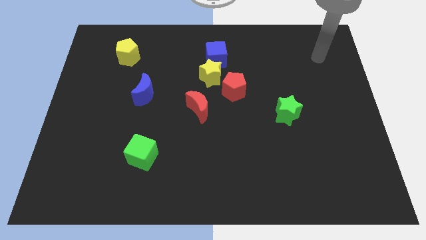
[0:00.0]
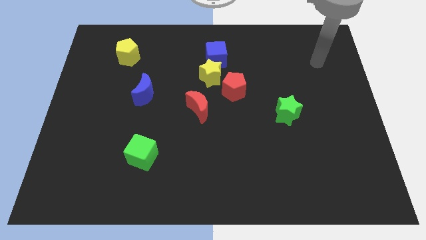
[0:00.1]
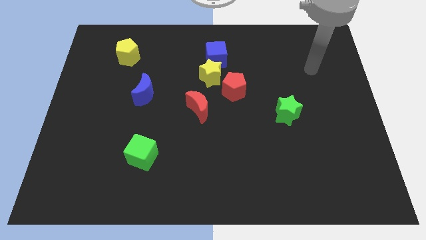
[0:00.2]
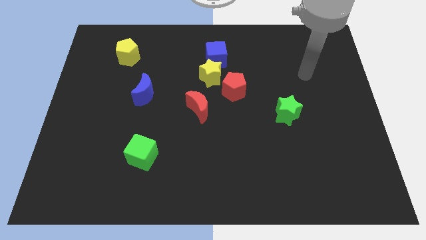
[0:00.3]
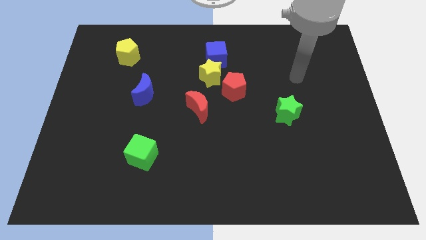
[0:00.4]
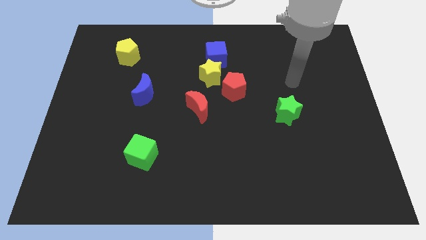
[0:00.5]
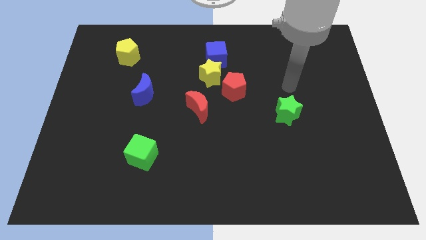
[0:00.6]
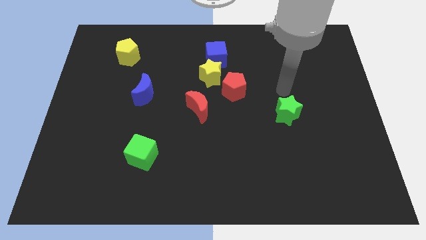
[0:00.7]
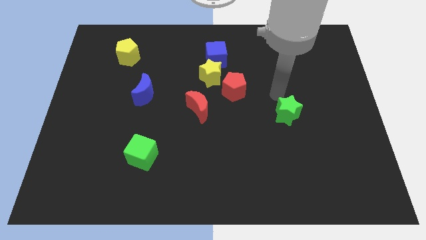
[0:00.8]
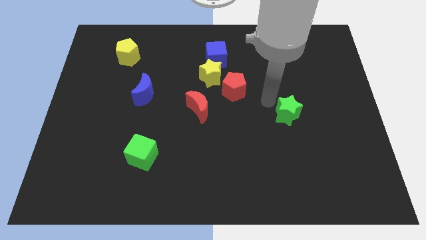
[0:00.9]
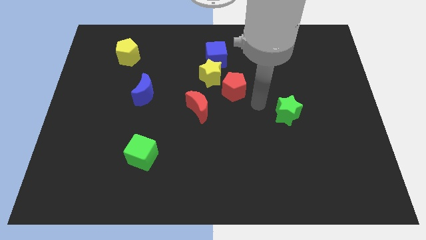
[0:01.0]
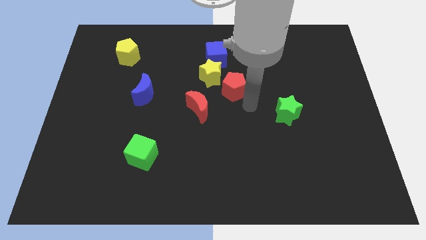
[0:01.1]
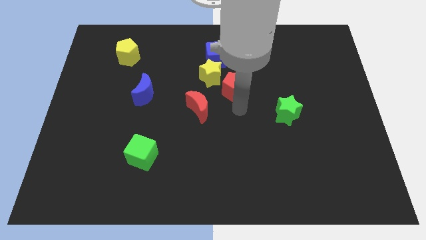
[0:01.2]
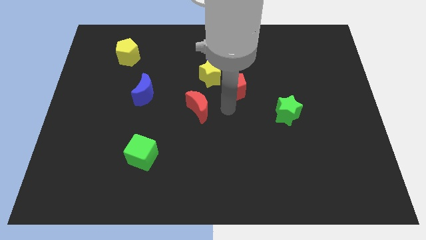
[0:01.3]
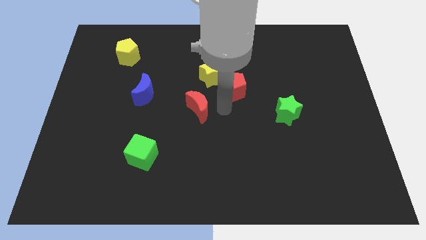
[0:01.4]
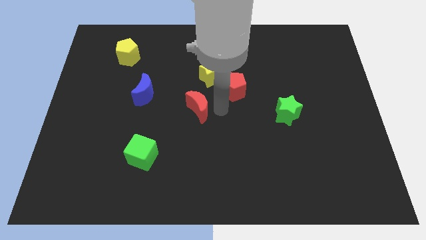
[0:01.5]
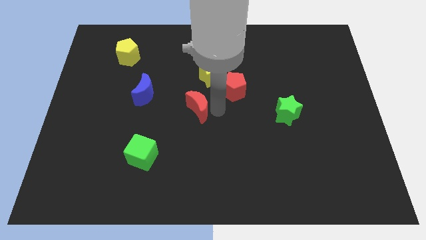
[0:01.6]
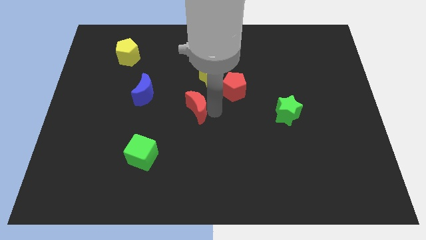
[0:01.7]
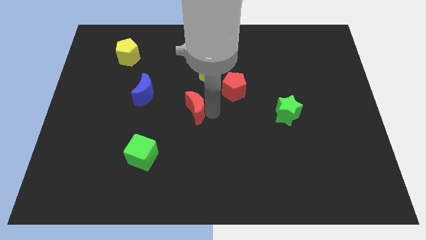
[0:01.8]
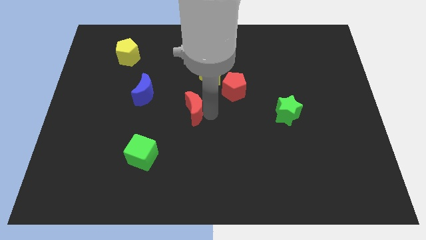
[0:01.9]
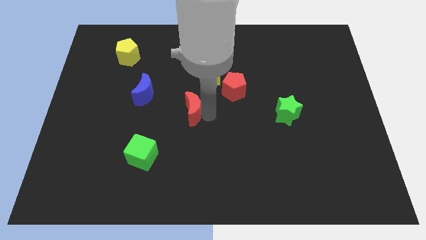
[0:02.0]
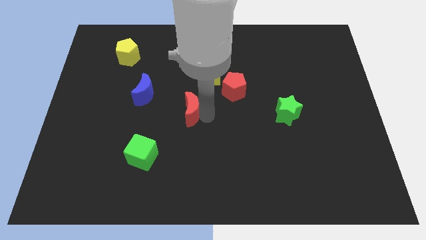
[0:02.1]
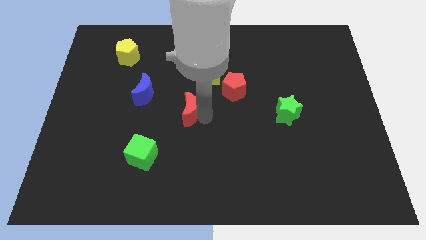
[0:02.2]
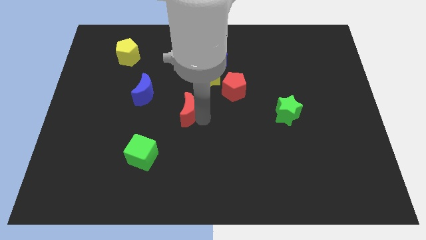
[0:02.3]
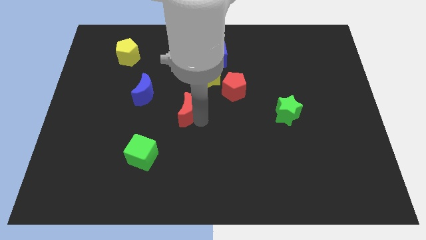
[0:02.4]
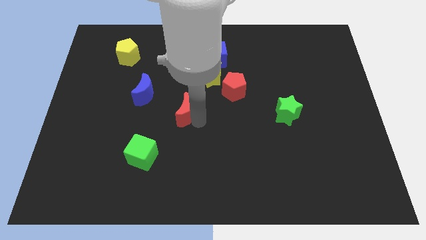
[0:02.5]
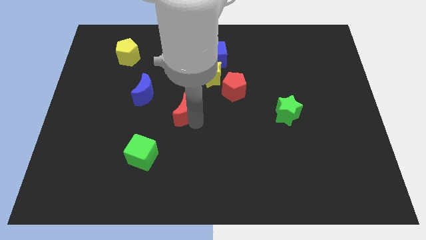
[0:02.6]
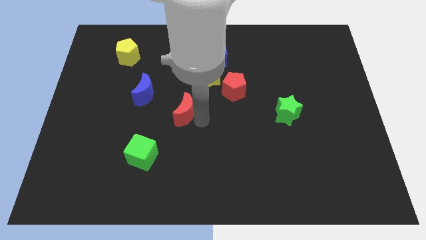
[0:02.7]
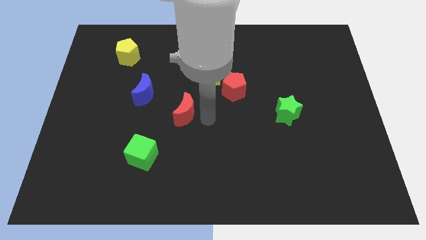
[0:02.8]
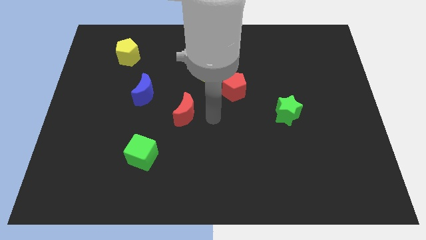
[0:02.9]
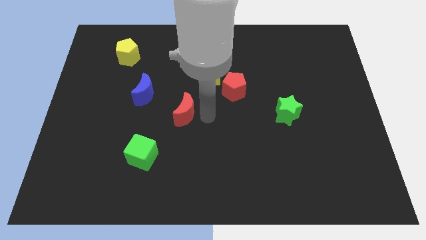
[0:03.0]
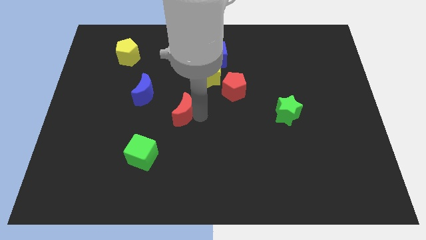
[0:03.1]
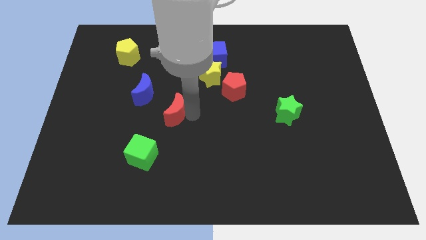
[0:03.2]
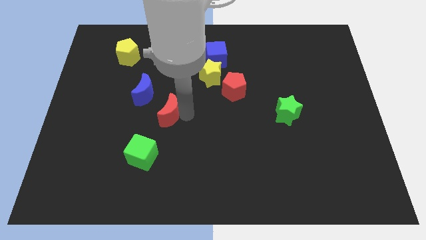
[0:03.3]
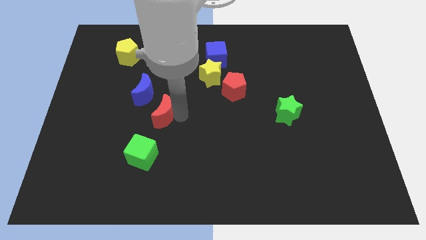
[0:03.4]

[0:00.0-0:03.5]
move the red moon to the left a bit

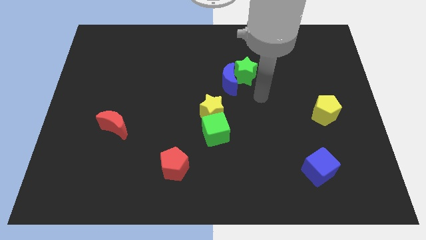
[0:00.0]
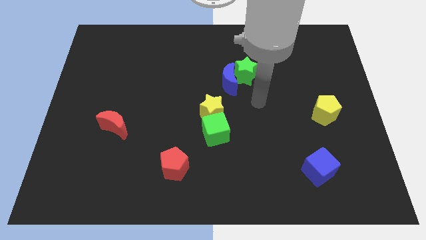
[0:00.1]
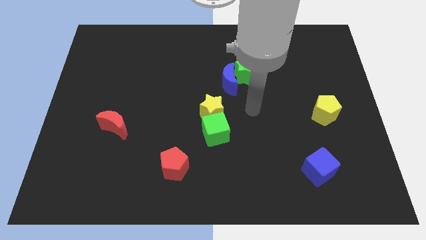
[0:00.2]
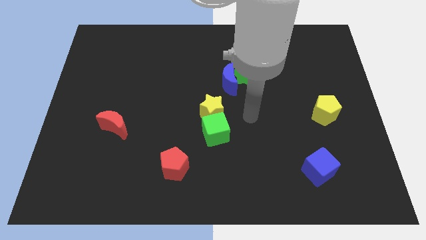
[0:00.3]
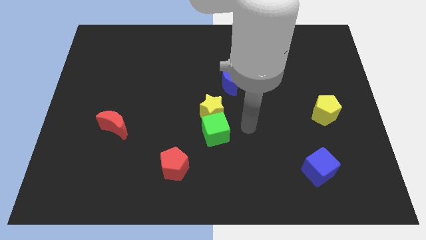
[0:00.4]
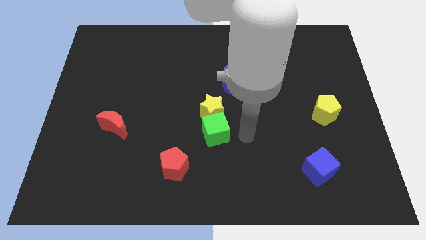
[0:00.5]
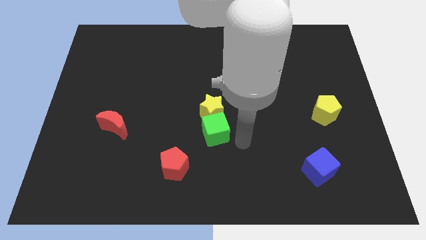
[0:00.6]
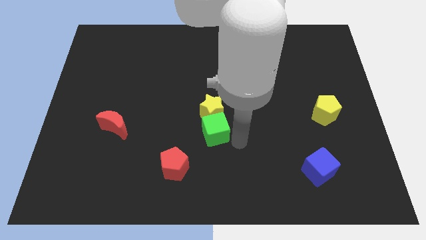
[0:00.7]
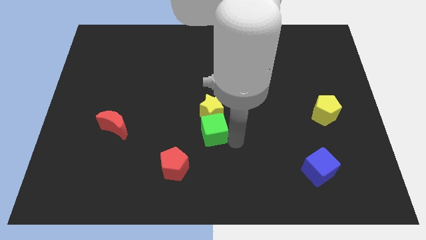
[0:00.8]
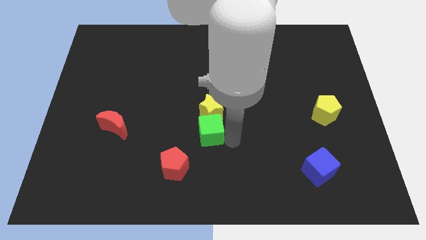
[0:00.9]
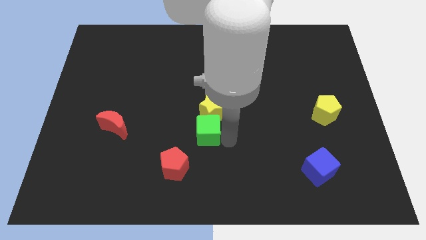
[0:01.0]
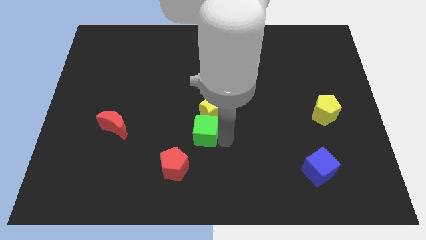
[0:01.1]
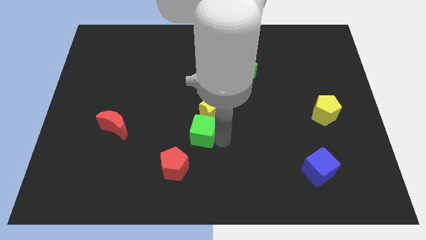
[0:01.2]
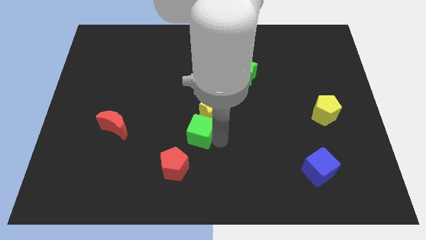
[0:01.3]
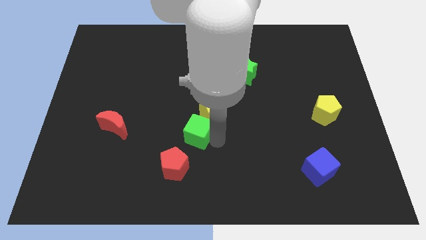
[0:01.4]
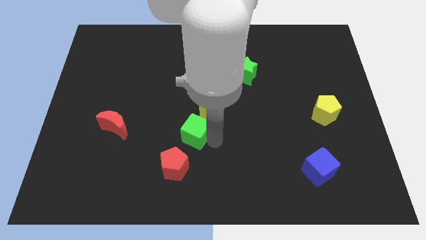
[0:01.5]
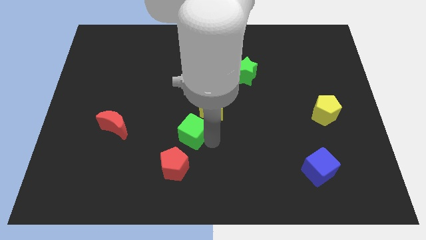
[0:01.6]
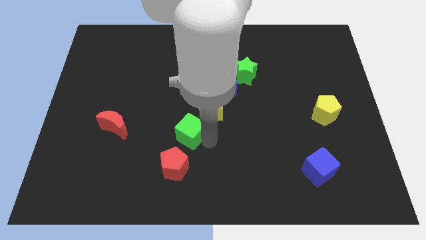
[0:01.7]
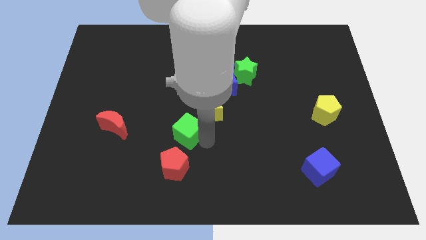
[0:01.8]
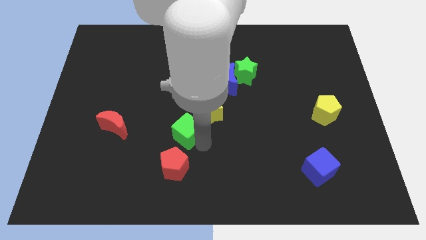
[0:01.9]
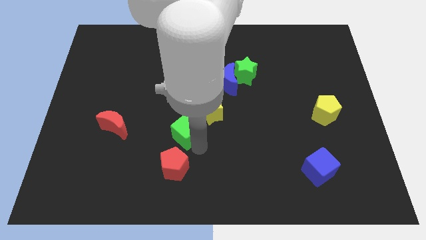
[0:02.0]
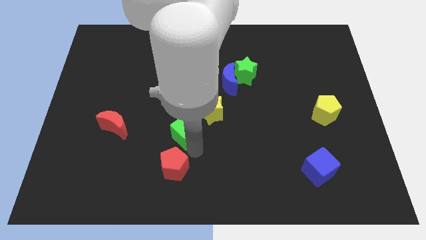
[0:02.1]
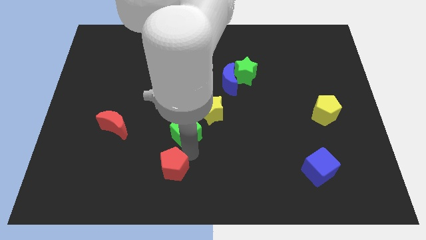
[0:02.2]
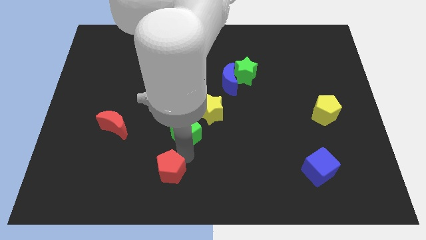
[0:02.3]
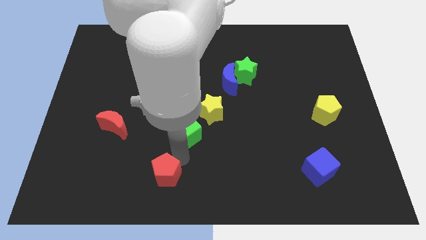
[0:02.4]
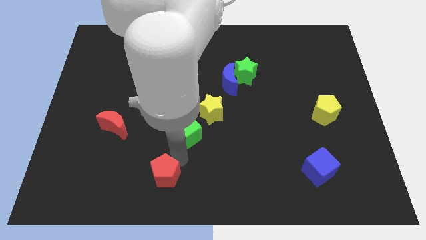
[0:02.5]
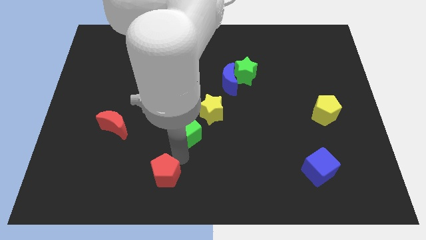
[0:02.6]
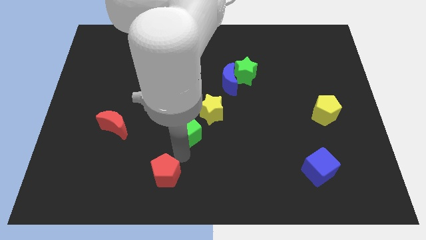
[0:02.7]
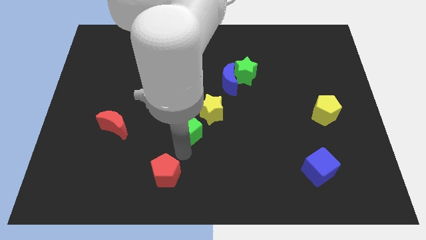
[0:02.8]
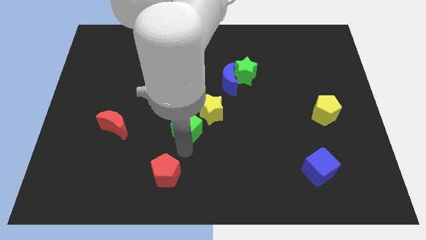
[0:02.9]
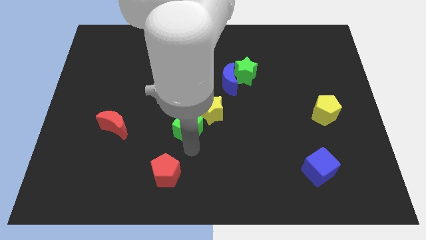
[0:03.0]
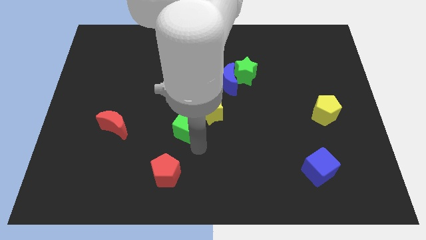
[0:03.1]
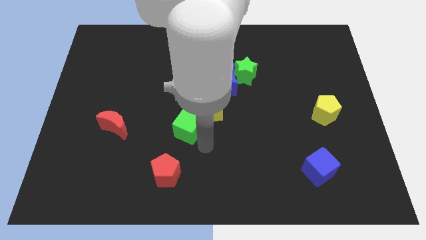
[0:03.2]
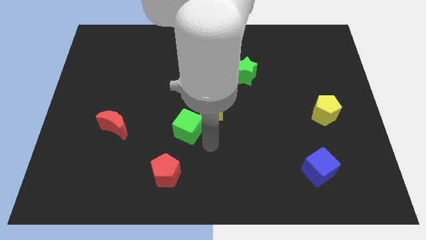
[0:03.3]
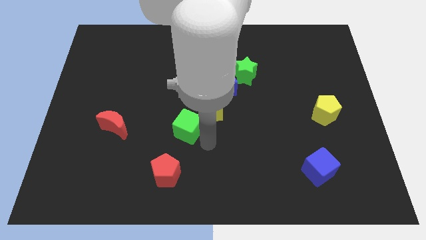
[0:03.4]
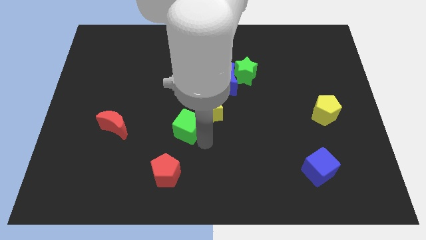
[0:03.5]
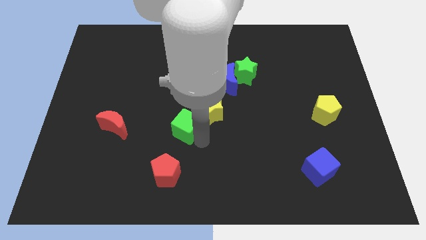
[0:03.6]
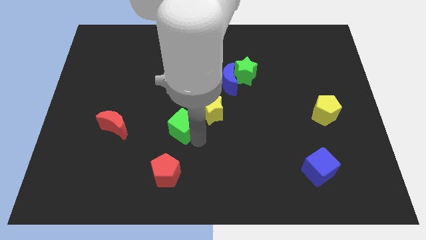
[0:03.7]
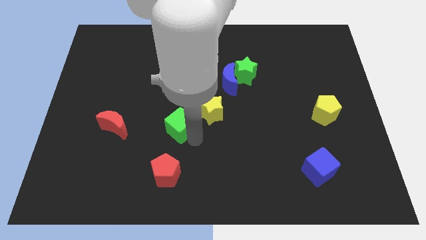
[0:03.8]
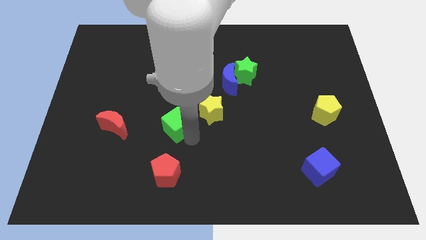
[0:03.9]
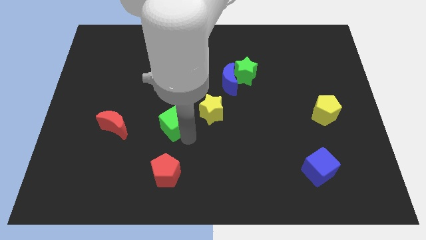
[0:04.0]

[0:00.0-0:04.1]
slide the green cube somewhat upwards and left
